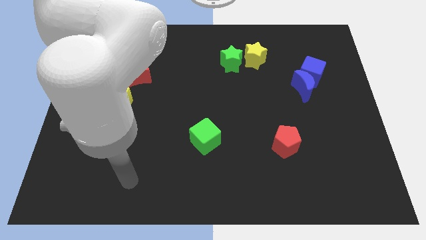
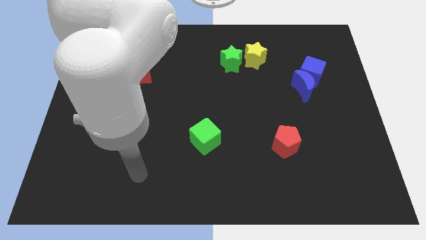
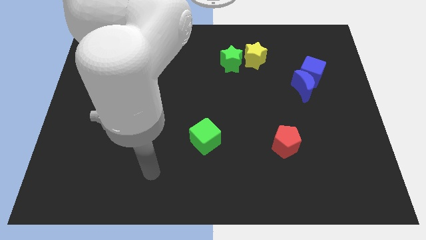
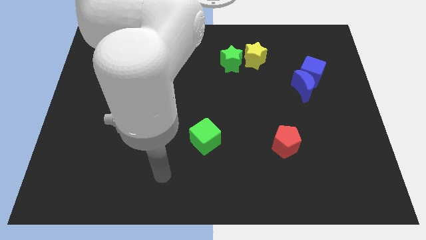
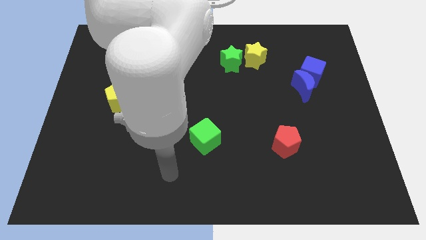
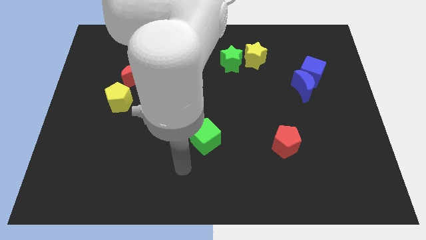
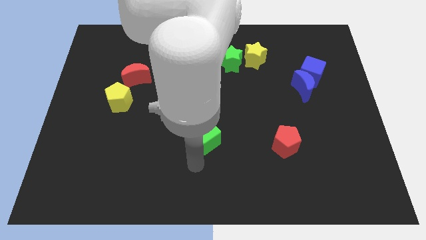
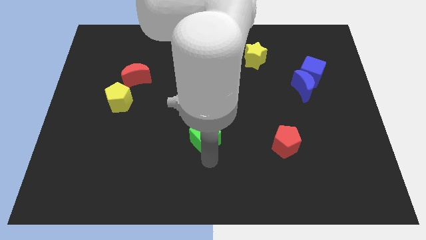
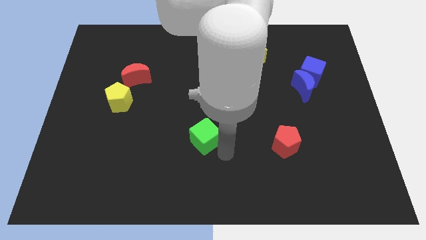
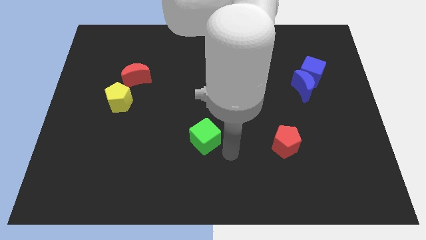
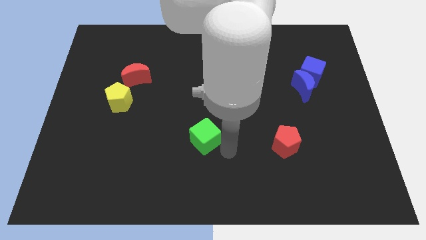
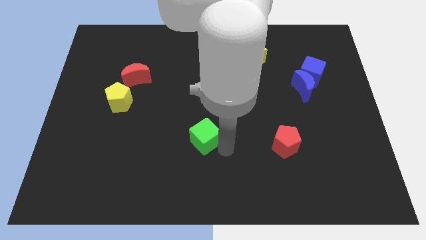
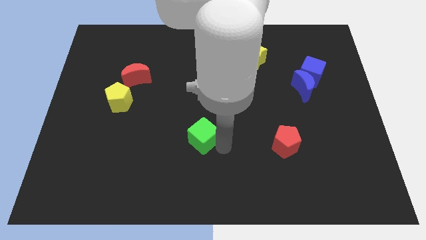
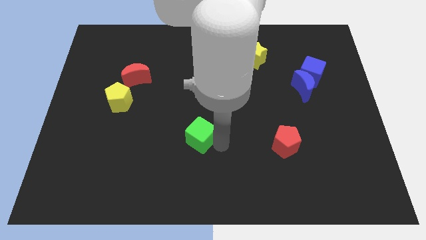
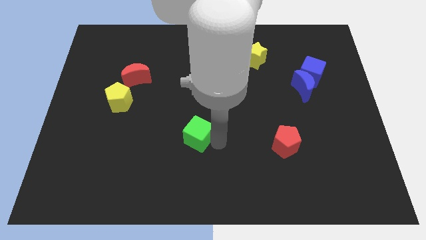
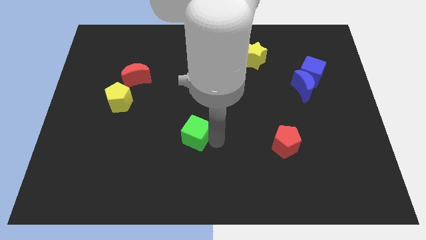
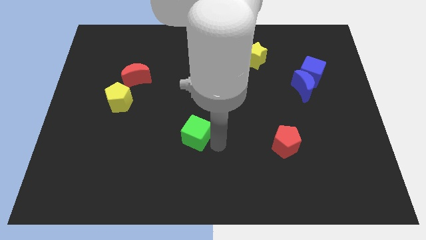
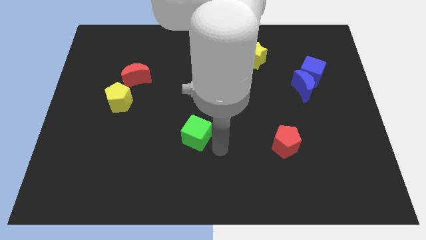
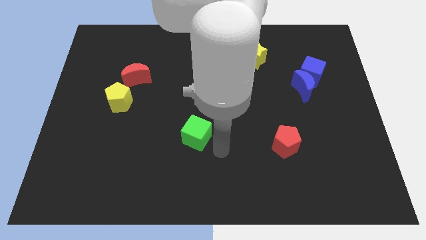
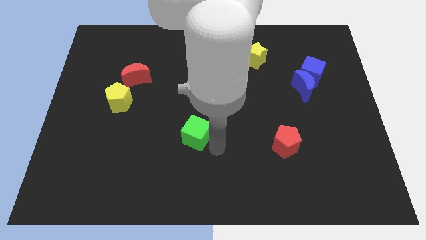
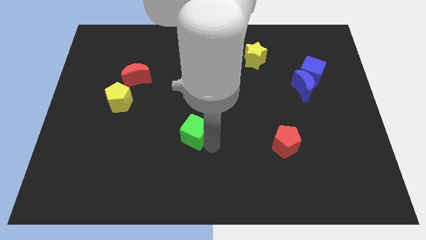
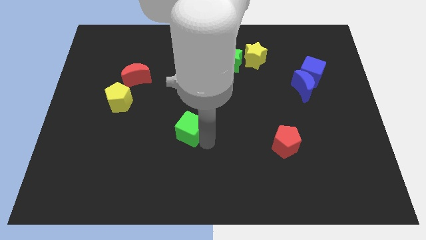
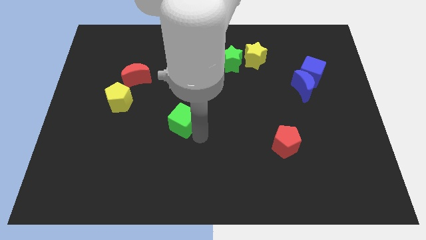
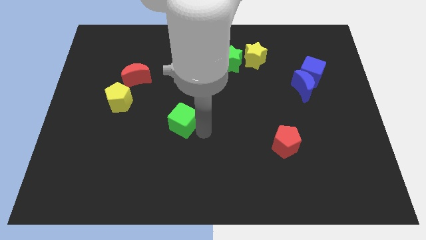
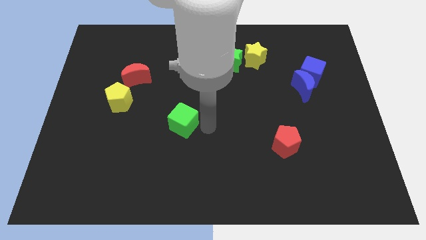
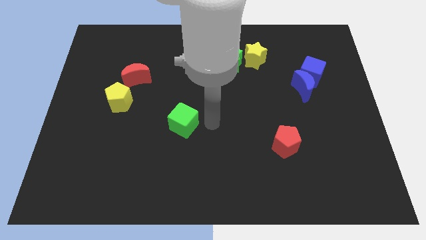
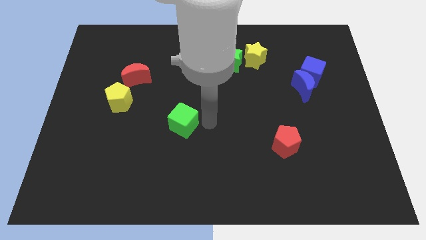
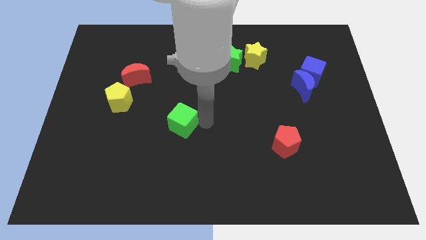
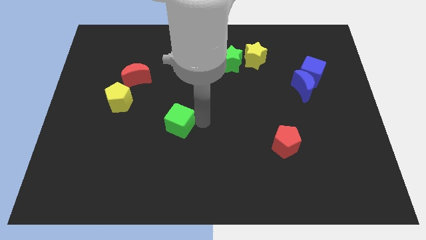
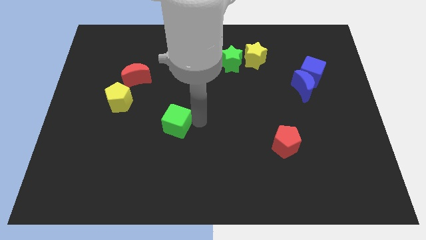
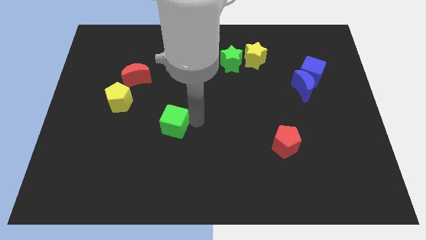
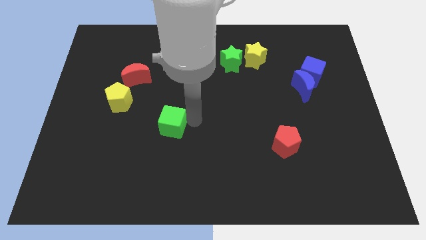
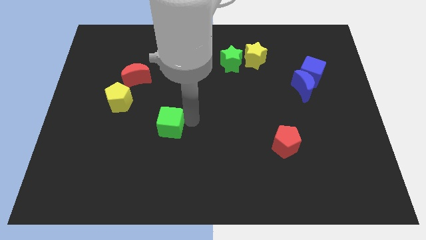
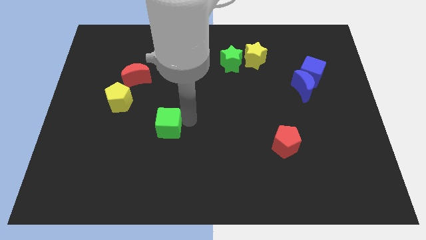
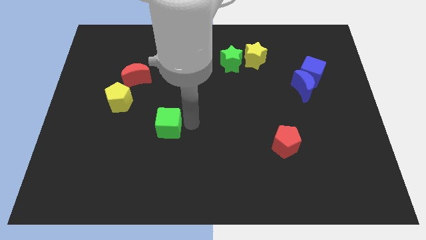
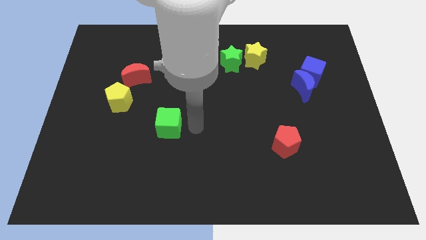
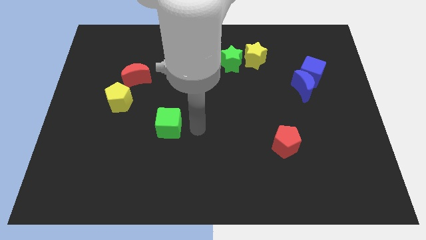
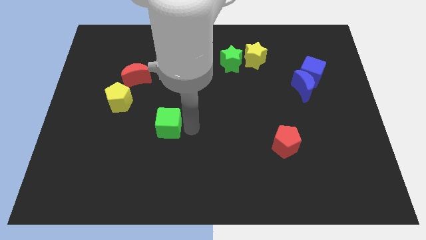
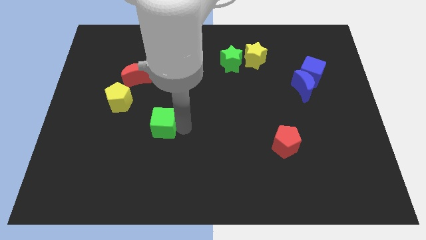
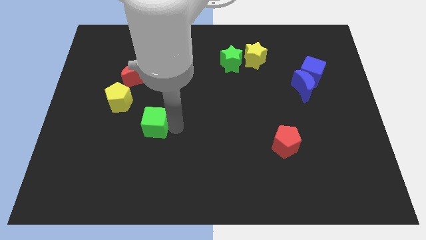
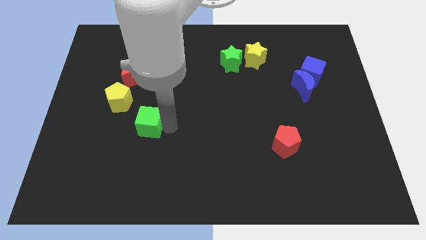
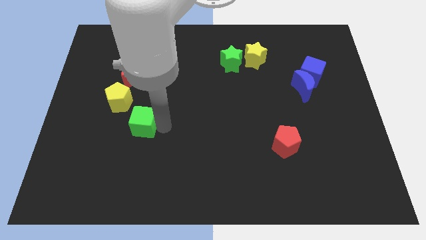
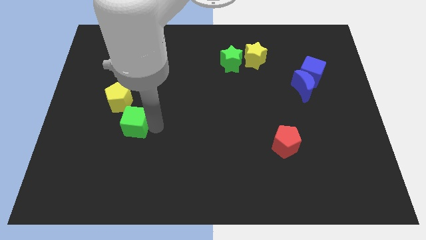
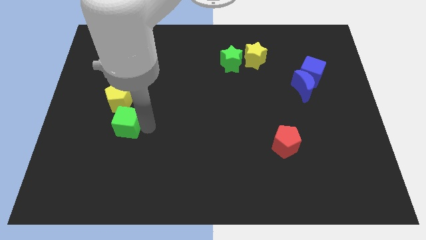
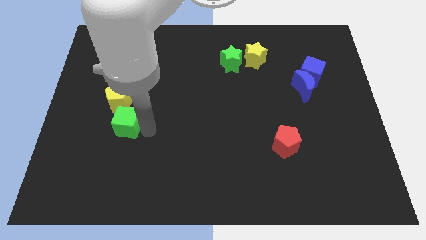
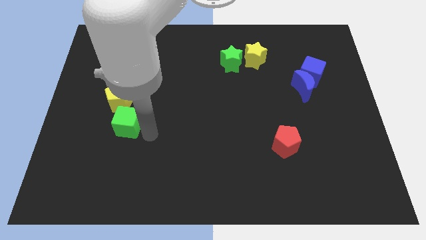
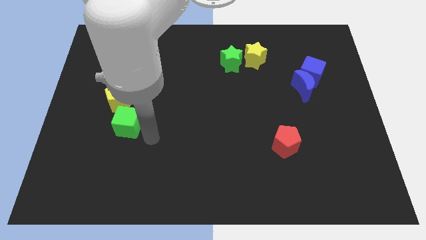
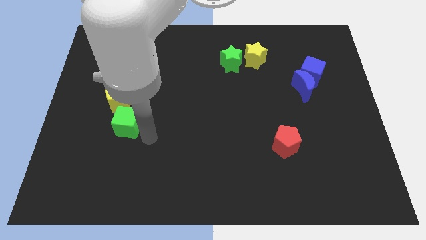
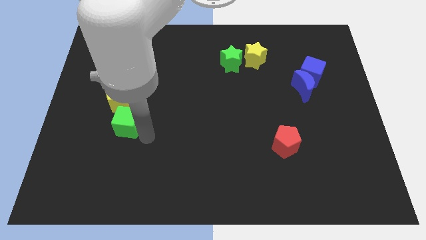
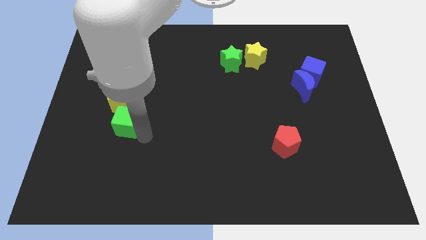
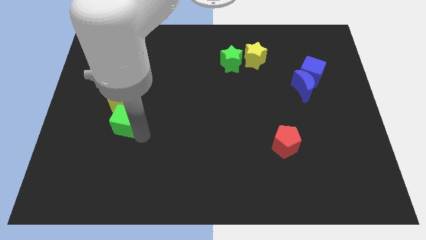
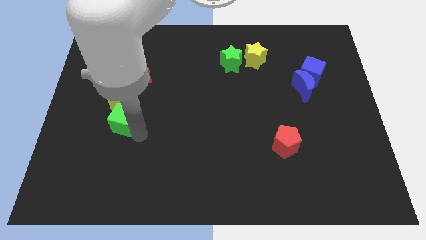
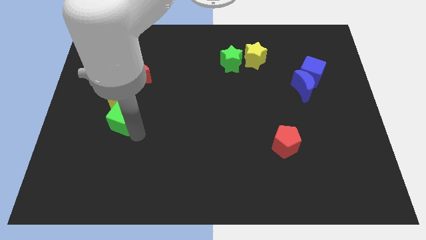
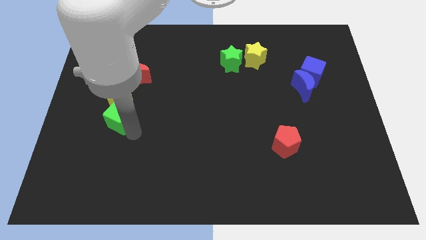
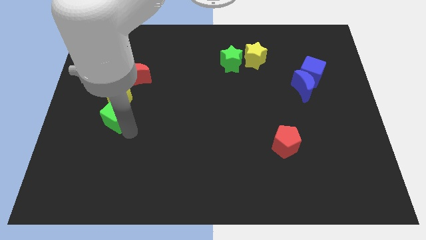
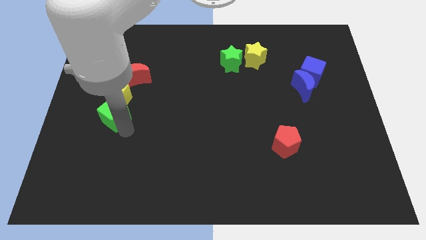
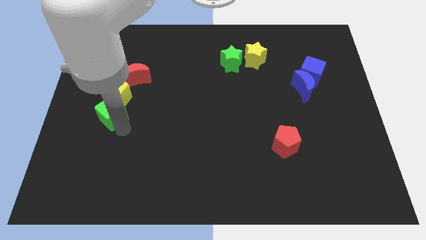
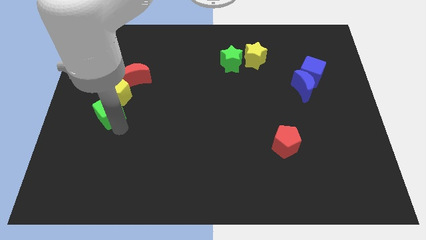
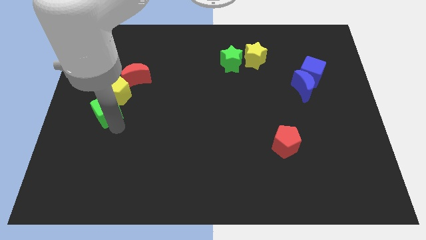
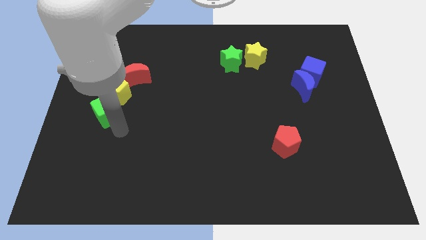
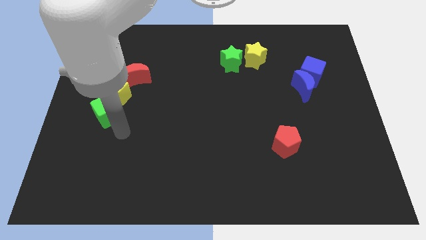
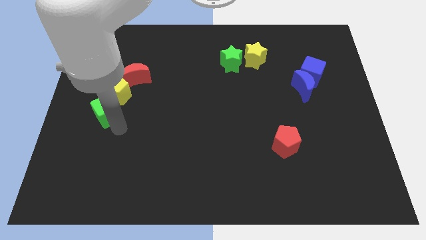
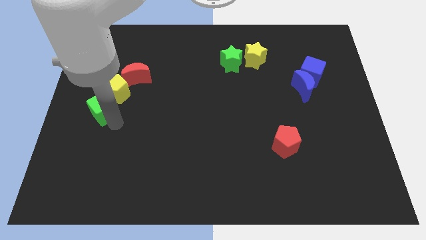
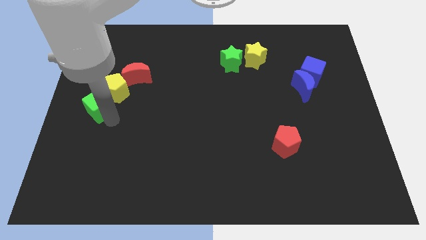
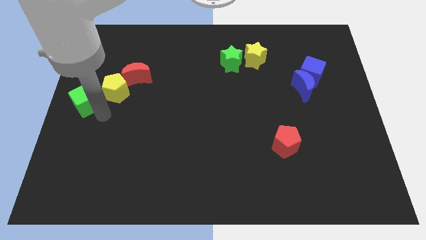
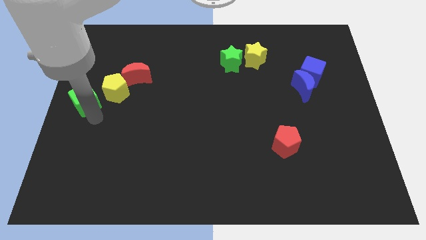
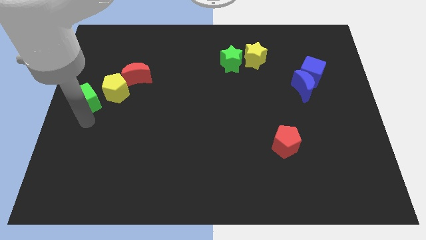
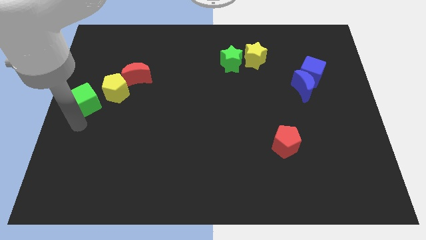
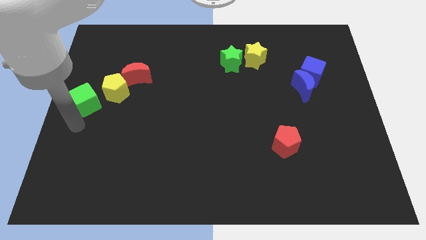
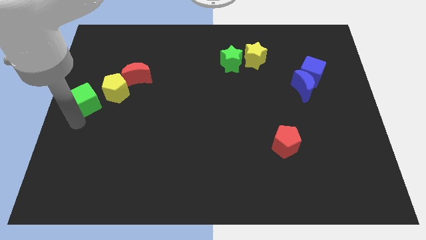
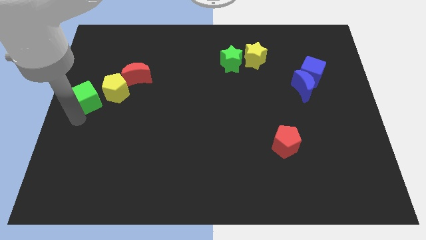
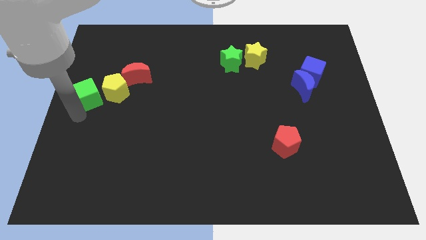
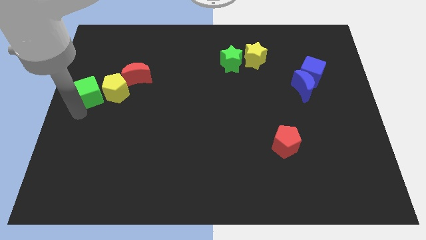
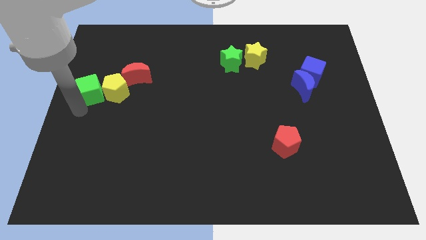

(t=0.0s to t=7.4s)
move the green cube diagonally up and to the left of the yellow pentagon
